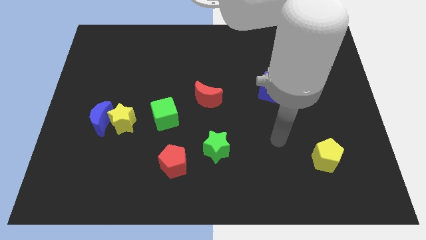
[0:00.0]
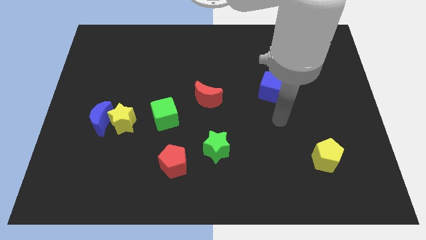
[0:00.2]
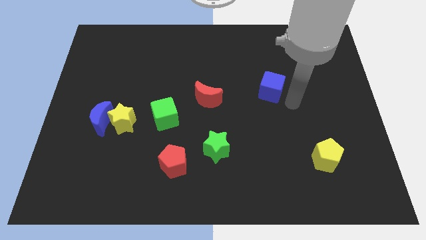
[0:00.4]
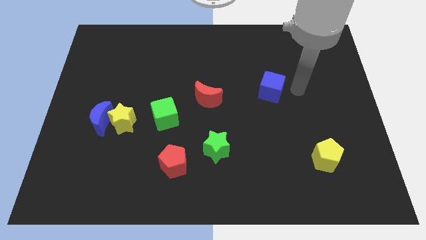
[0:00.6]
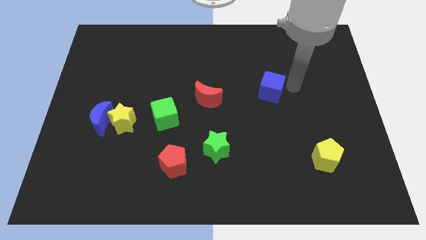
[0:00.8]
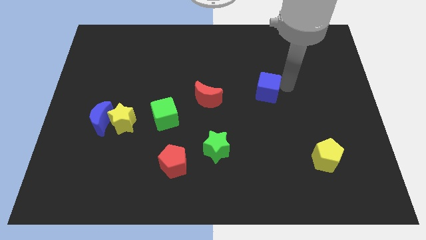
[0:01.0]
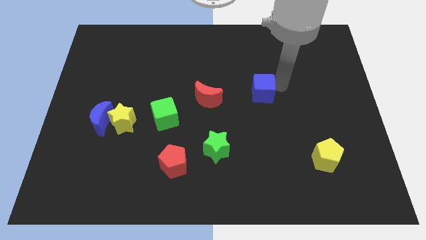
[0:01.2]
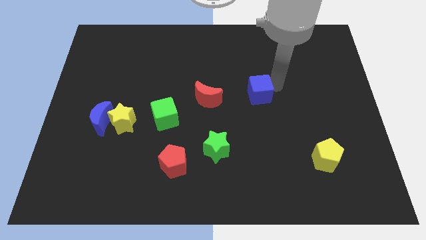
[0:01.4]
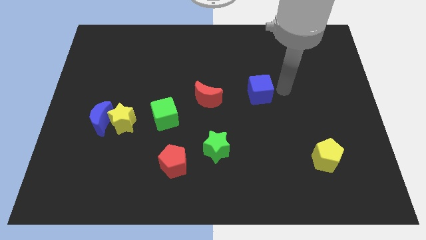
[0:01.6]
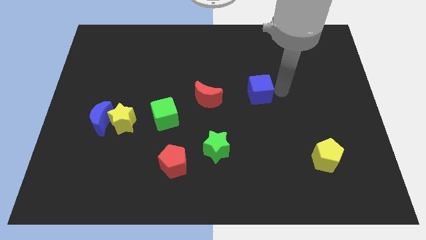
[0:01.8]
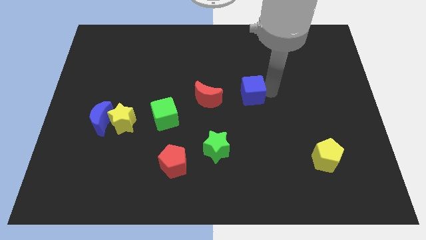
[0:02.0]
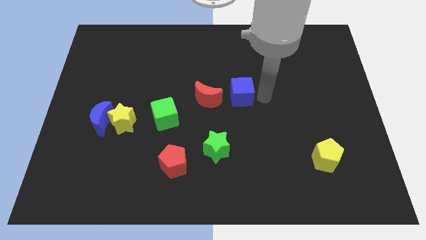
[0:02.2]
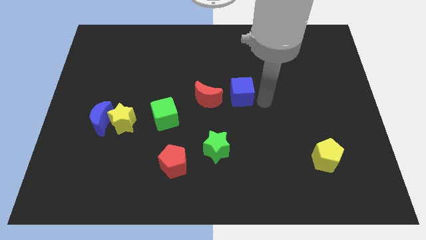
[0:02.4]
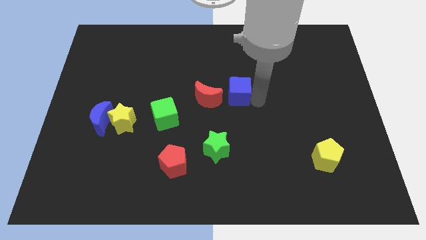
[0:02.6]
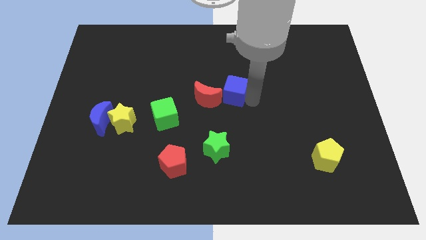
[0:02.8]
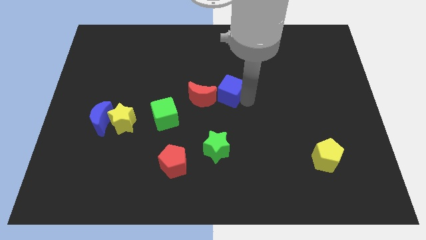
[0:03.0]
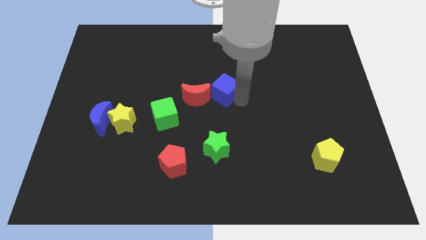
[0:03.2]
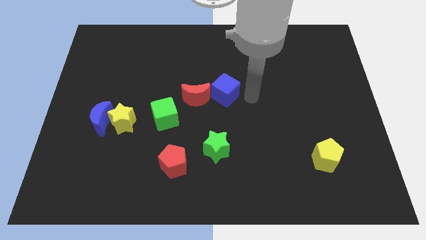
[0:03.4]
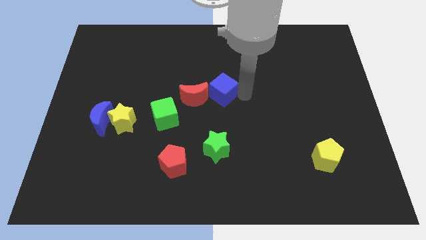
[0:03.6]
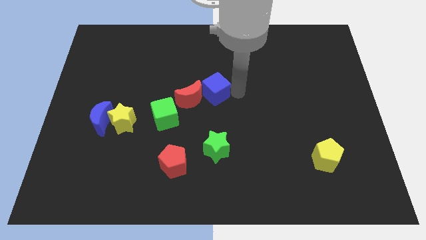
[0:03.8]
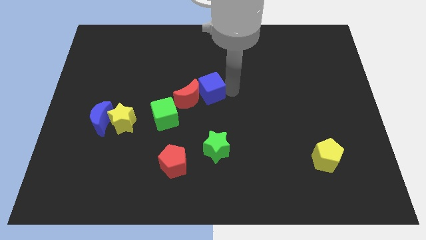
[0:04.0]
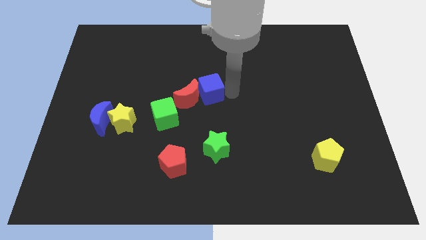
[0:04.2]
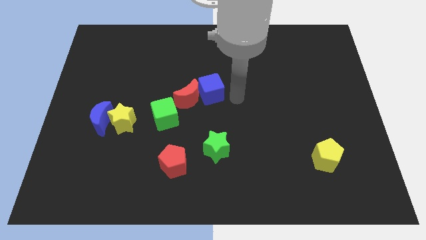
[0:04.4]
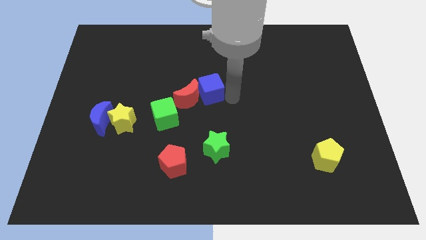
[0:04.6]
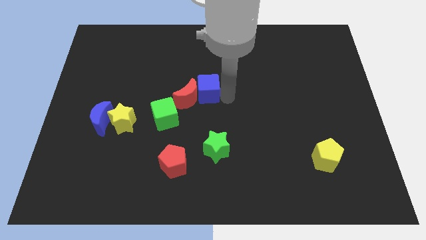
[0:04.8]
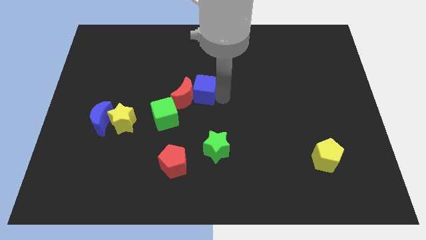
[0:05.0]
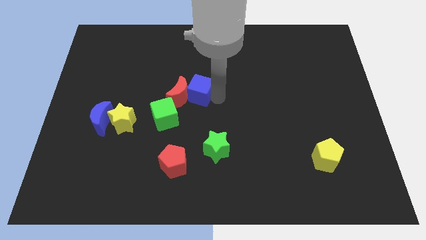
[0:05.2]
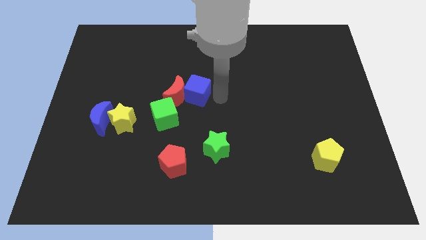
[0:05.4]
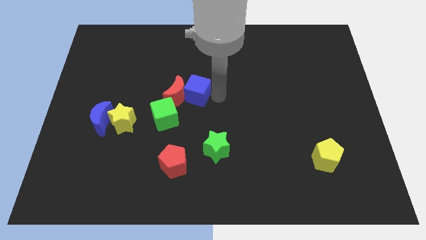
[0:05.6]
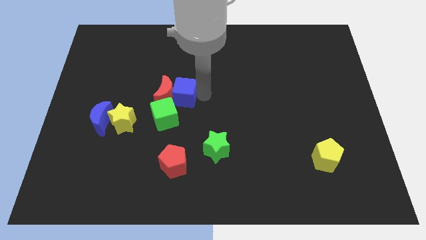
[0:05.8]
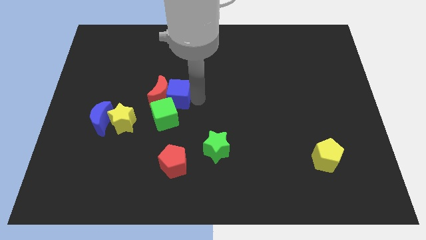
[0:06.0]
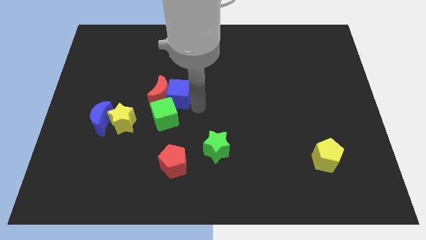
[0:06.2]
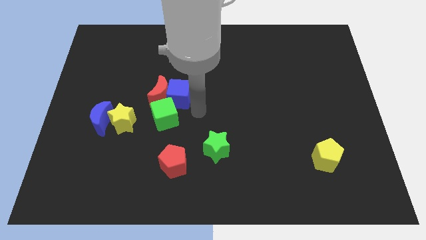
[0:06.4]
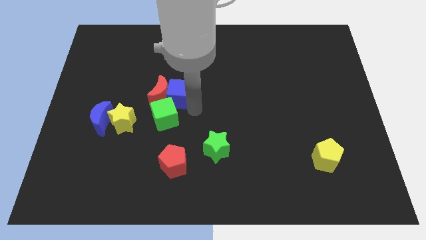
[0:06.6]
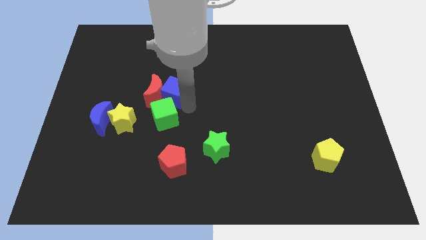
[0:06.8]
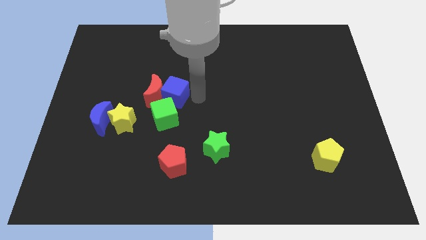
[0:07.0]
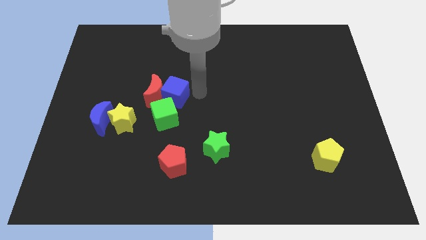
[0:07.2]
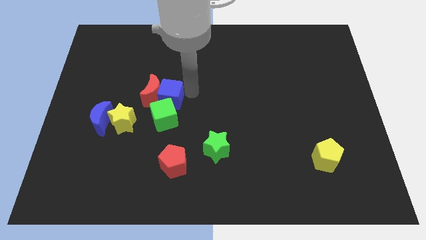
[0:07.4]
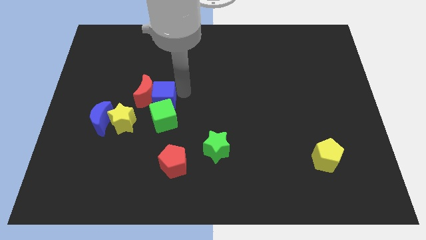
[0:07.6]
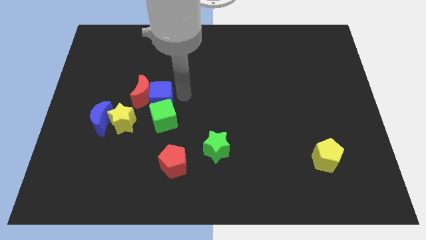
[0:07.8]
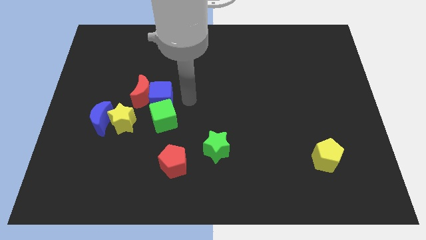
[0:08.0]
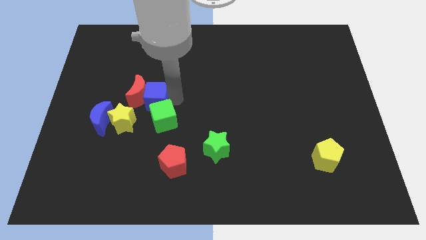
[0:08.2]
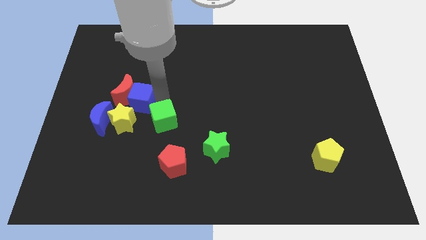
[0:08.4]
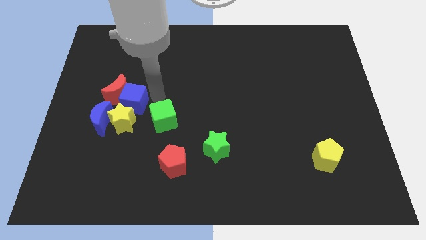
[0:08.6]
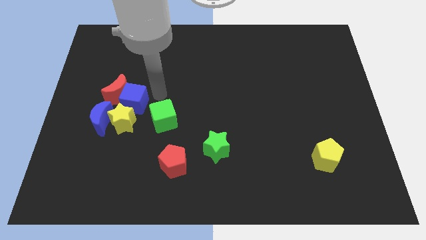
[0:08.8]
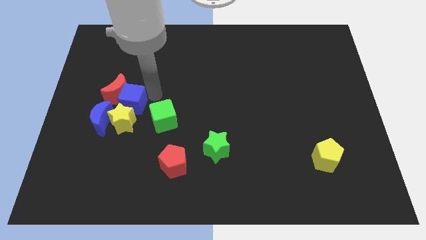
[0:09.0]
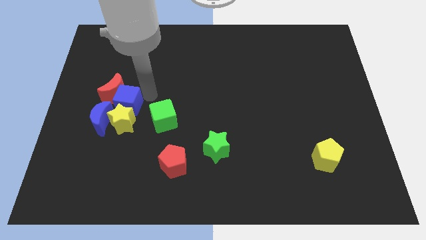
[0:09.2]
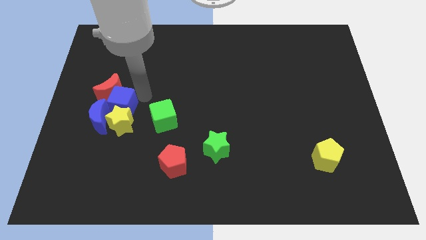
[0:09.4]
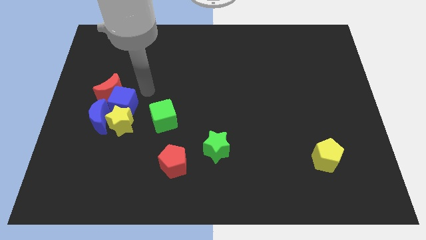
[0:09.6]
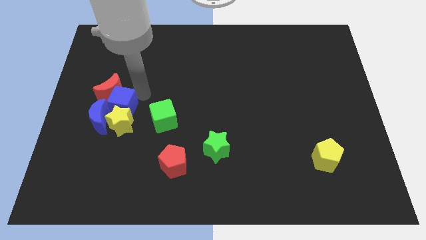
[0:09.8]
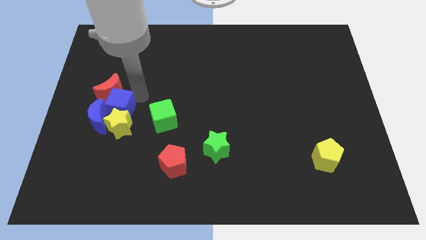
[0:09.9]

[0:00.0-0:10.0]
put the blue cube next to the blue moon

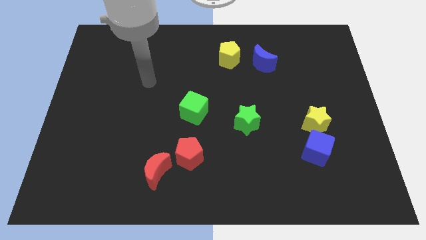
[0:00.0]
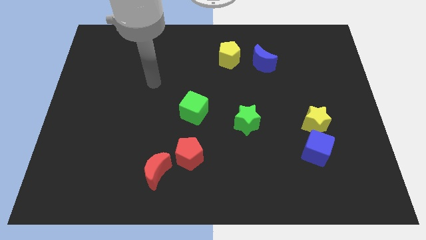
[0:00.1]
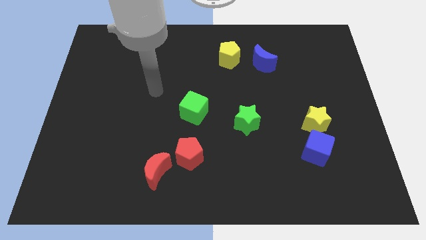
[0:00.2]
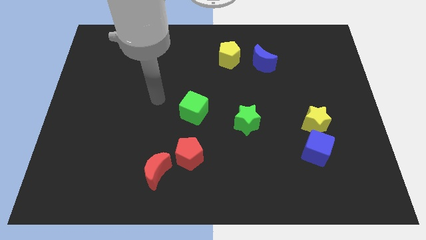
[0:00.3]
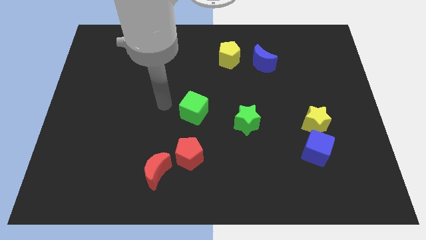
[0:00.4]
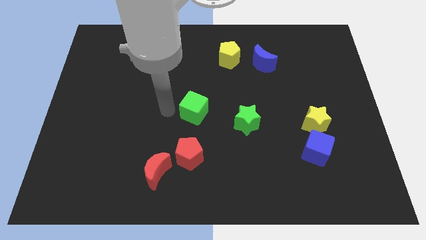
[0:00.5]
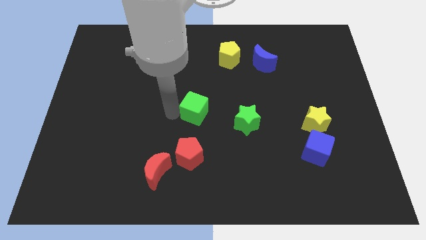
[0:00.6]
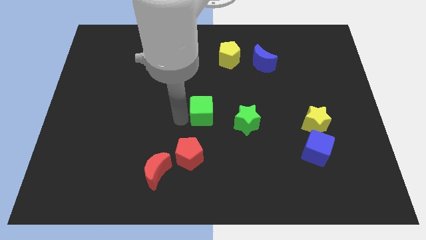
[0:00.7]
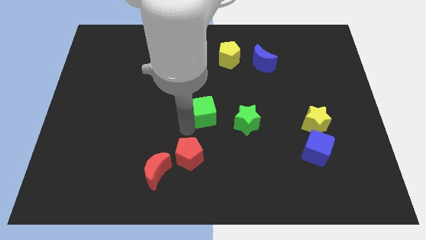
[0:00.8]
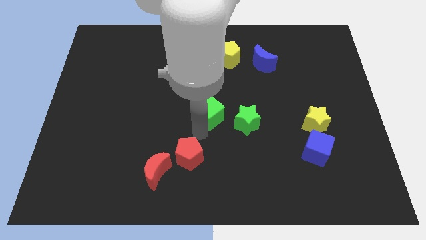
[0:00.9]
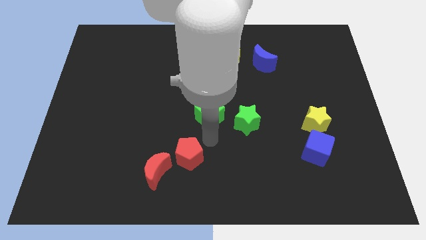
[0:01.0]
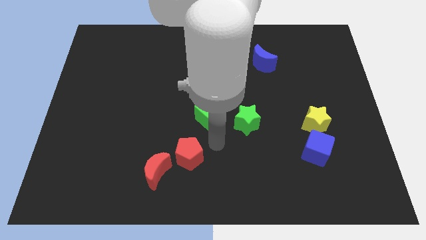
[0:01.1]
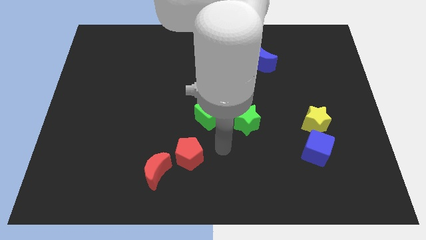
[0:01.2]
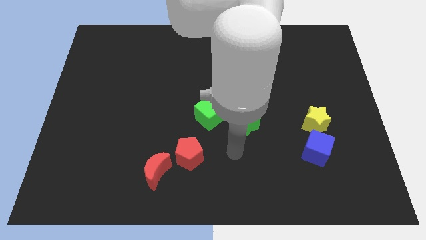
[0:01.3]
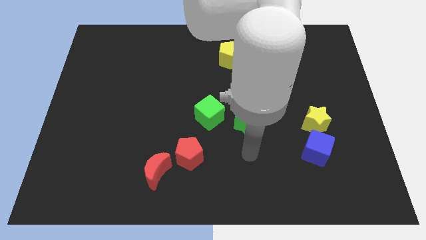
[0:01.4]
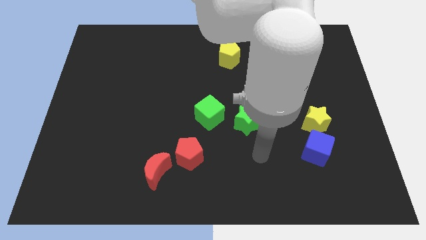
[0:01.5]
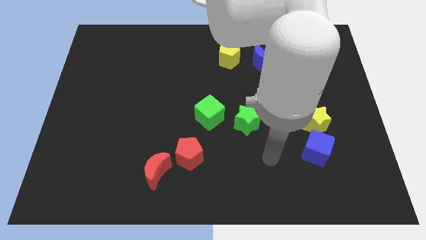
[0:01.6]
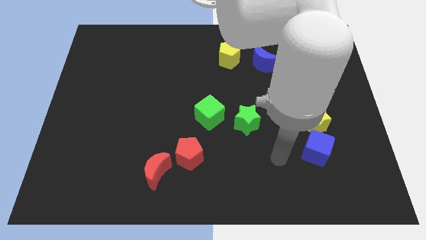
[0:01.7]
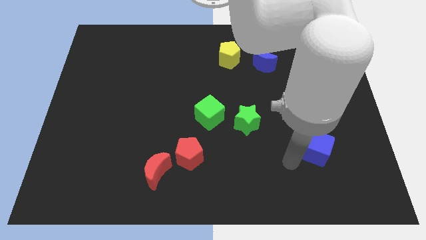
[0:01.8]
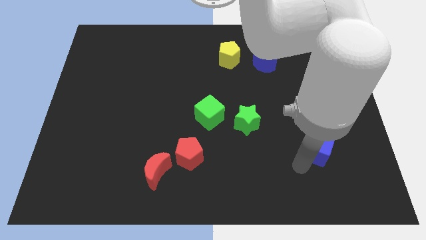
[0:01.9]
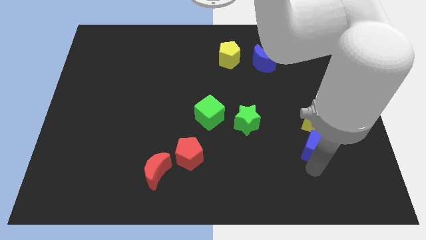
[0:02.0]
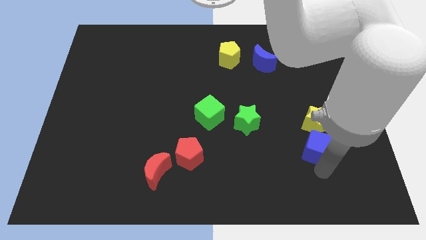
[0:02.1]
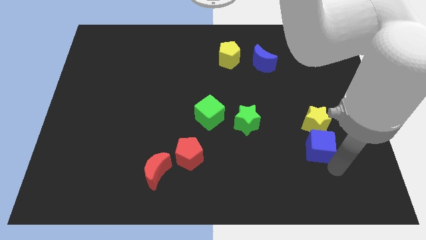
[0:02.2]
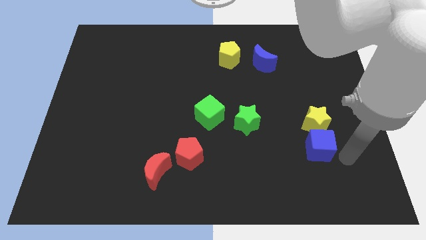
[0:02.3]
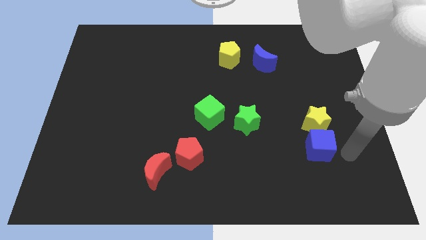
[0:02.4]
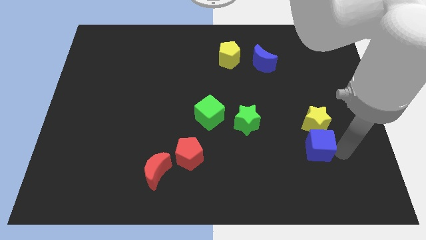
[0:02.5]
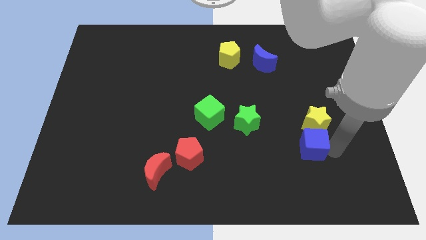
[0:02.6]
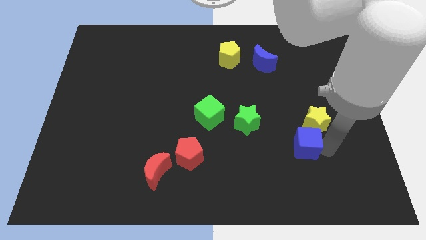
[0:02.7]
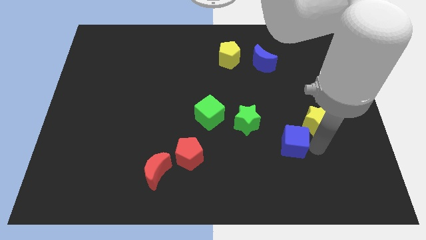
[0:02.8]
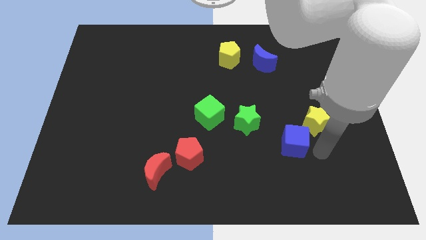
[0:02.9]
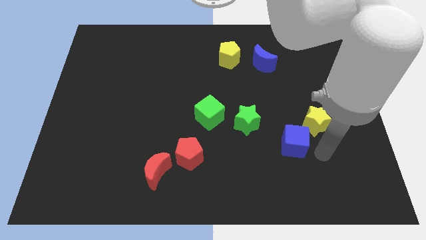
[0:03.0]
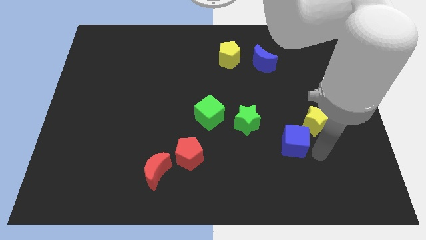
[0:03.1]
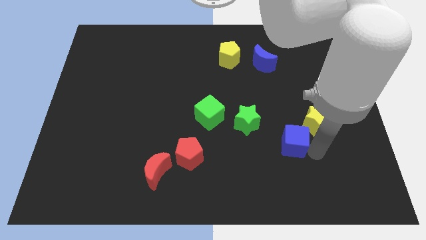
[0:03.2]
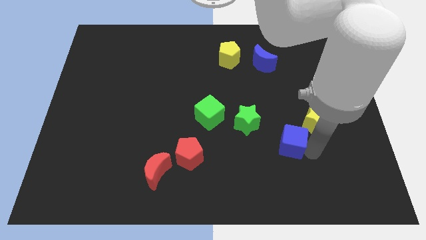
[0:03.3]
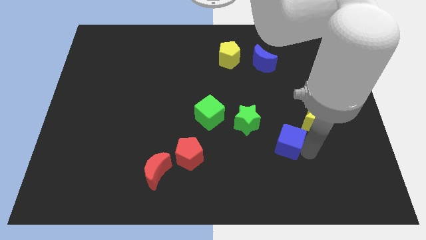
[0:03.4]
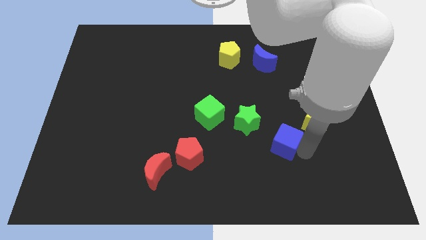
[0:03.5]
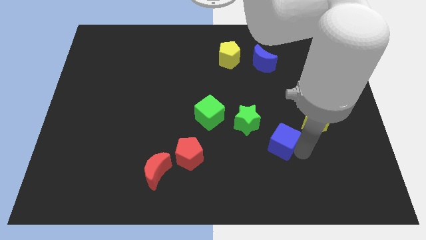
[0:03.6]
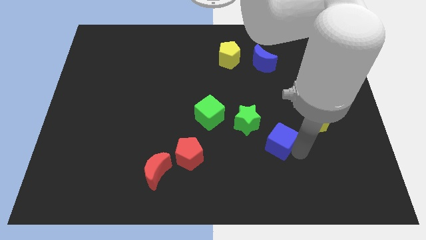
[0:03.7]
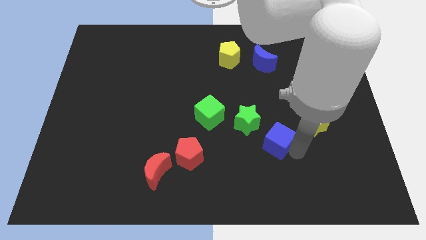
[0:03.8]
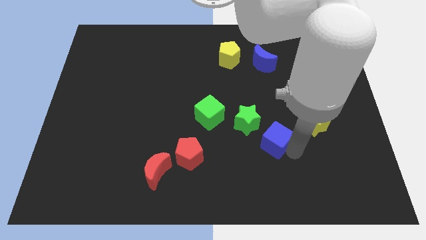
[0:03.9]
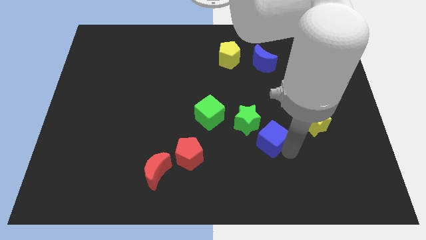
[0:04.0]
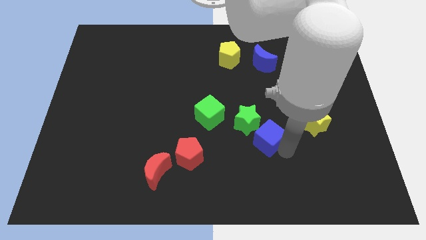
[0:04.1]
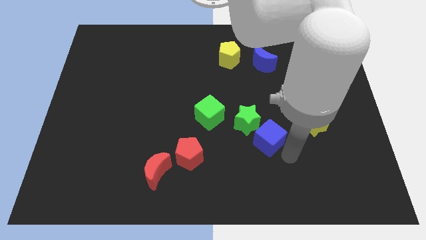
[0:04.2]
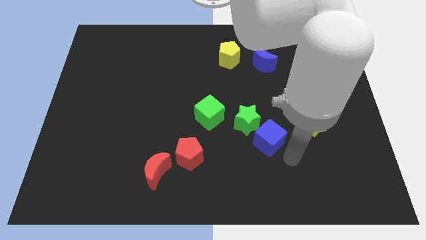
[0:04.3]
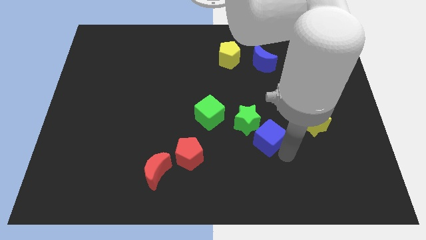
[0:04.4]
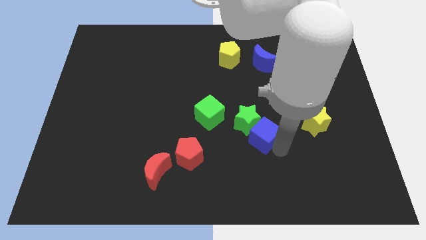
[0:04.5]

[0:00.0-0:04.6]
move the blue cube next to the green star
